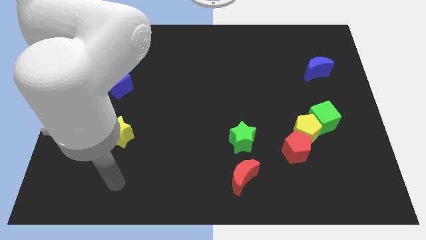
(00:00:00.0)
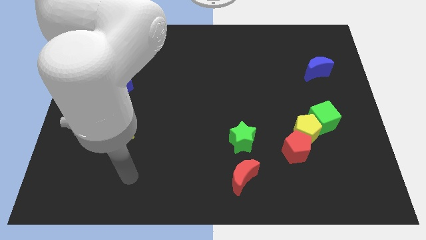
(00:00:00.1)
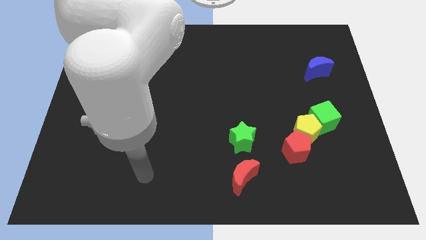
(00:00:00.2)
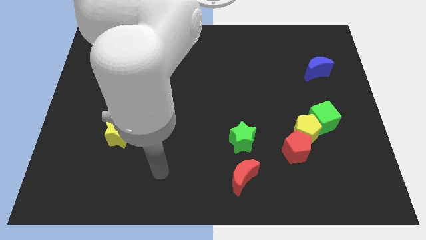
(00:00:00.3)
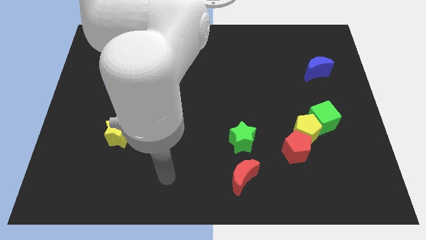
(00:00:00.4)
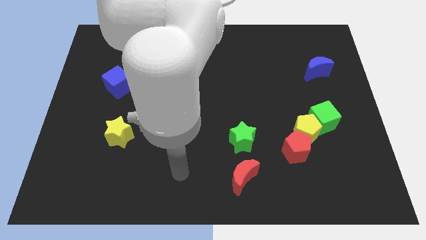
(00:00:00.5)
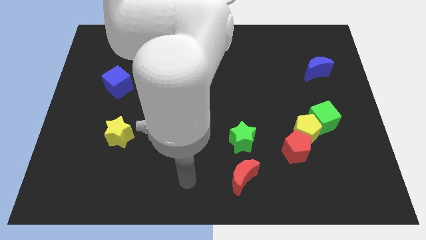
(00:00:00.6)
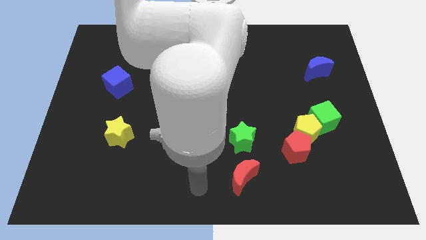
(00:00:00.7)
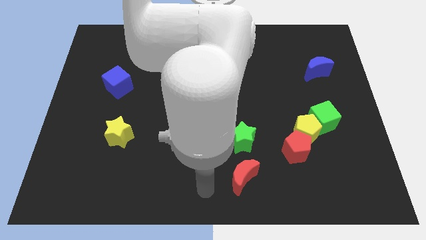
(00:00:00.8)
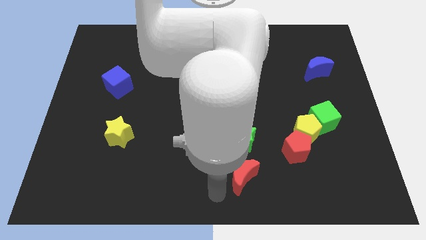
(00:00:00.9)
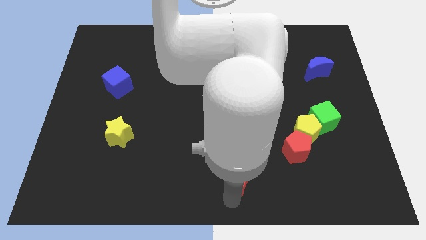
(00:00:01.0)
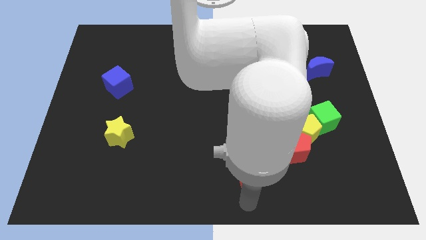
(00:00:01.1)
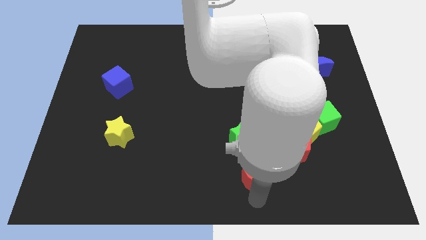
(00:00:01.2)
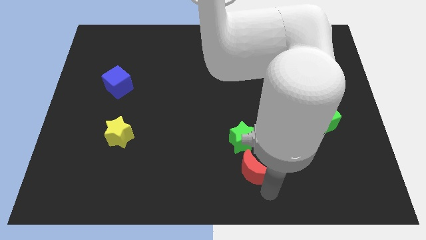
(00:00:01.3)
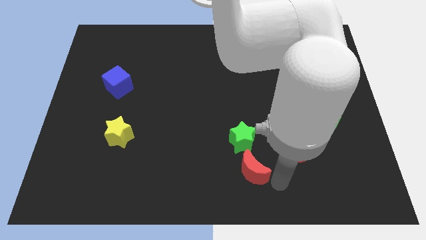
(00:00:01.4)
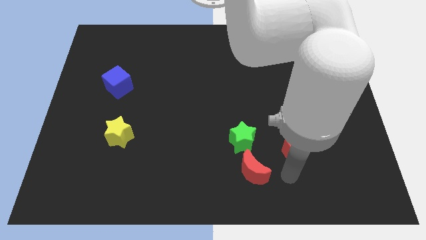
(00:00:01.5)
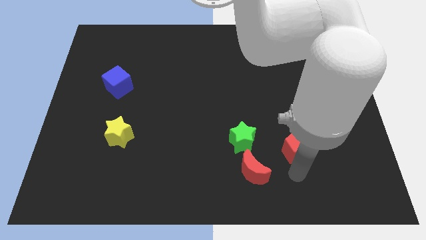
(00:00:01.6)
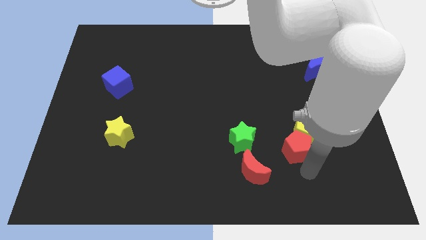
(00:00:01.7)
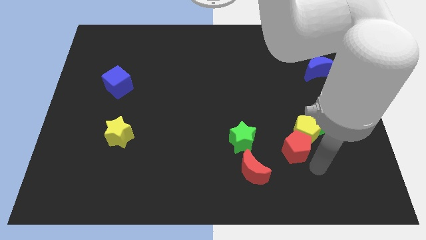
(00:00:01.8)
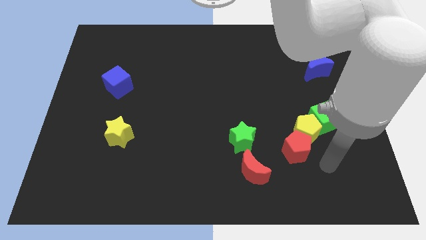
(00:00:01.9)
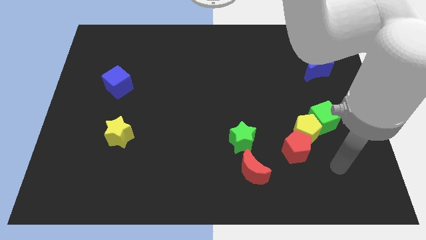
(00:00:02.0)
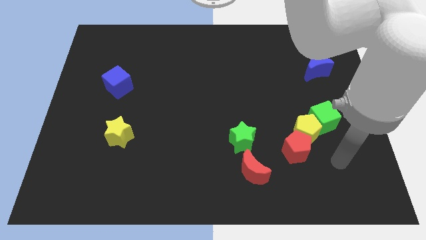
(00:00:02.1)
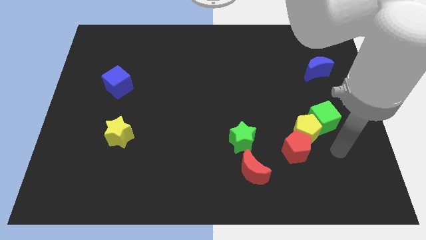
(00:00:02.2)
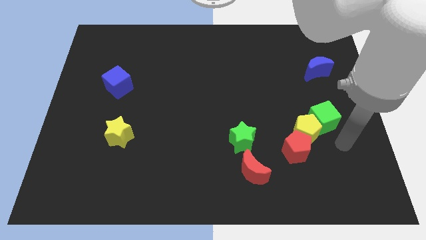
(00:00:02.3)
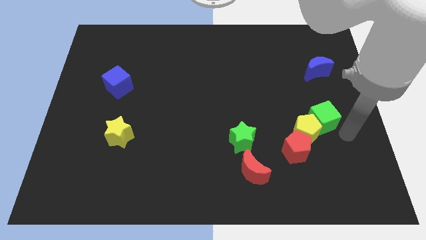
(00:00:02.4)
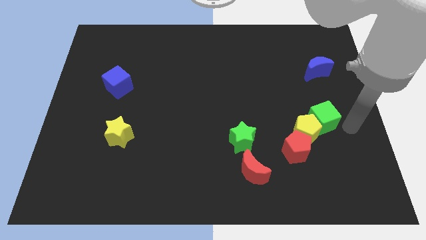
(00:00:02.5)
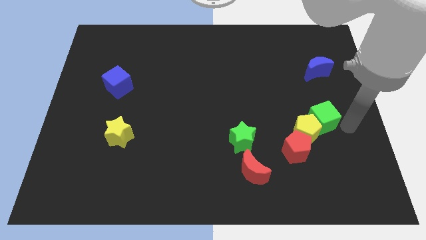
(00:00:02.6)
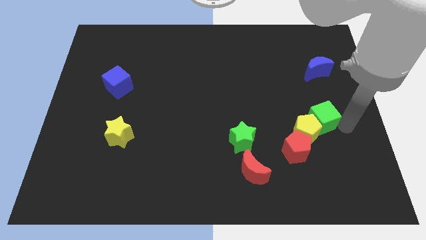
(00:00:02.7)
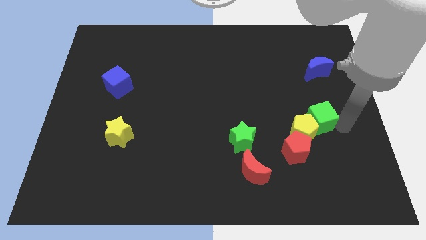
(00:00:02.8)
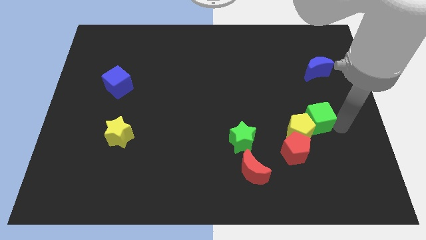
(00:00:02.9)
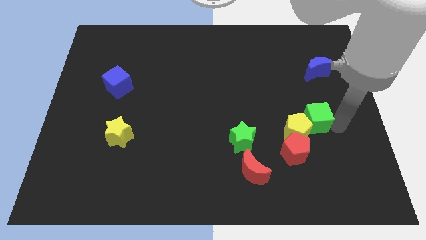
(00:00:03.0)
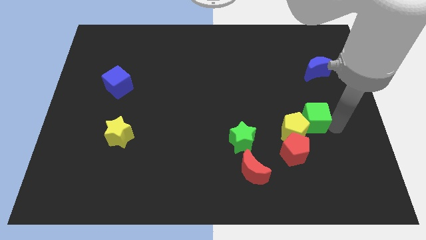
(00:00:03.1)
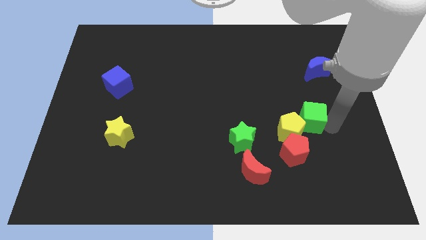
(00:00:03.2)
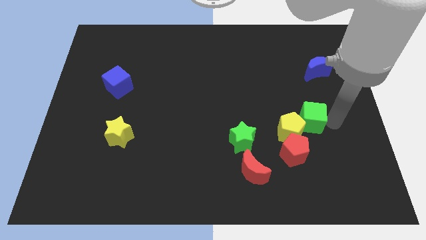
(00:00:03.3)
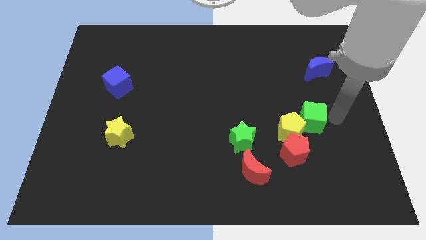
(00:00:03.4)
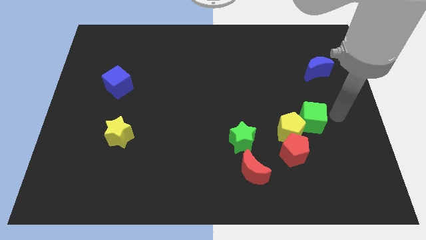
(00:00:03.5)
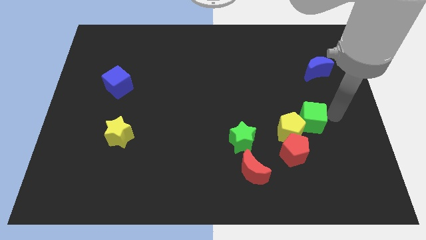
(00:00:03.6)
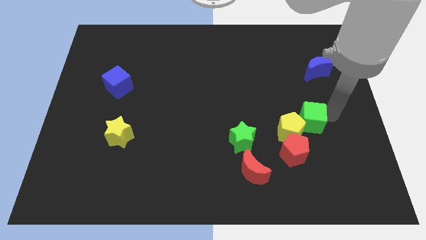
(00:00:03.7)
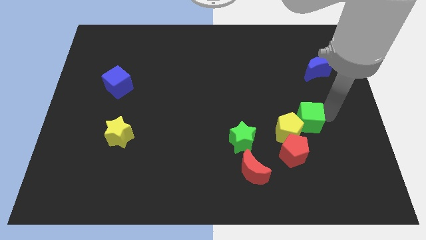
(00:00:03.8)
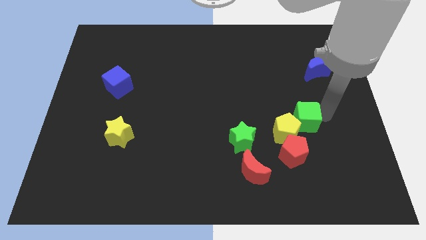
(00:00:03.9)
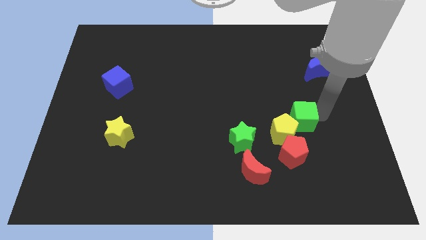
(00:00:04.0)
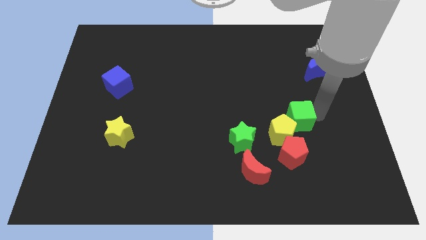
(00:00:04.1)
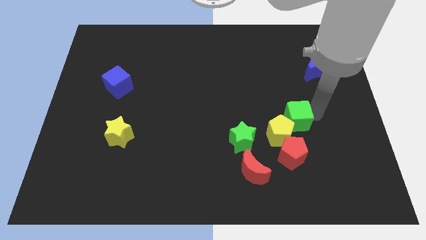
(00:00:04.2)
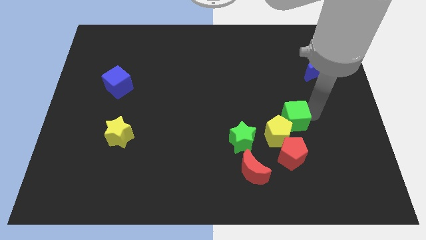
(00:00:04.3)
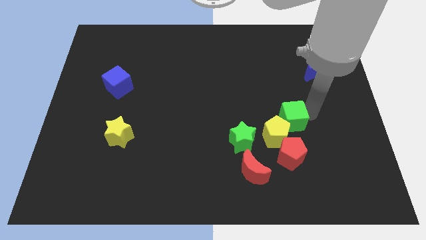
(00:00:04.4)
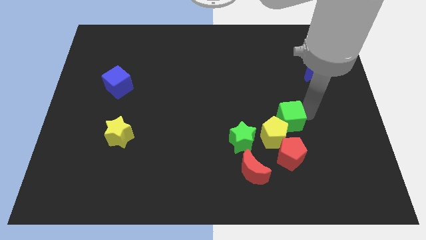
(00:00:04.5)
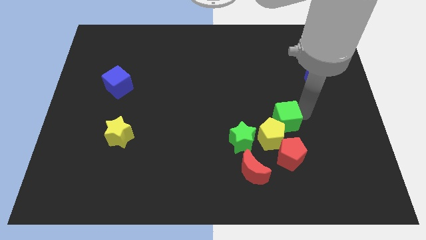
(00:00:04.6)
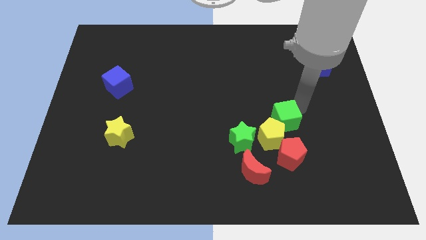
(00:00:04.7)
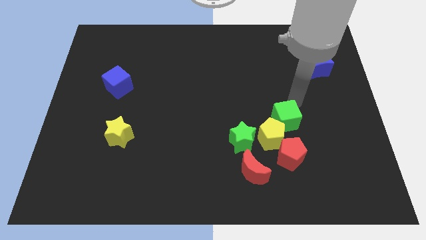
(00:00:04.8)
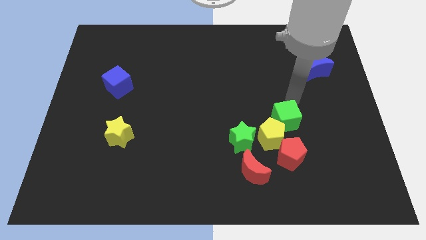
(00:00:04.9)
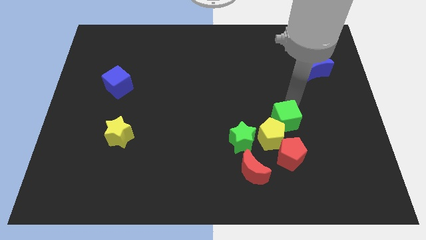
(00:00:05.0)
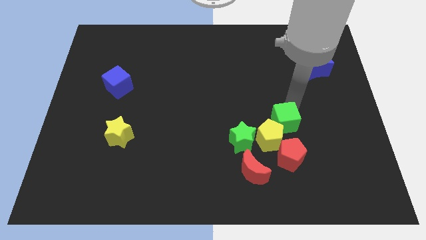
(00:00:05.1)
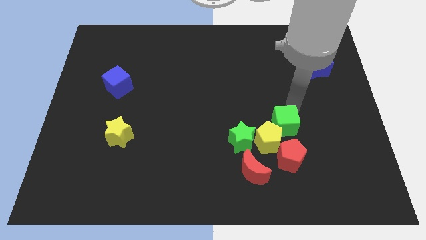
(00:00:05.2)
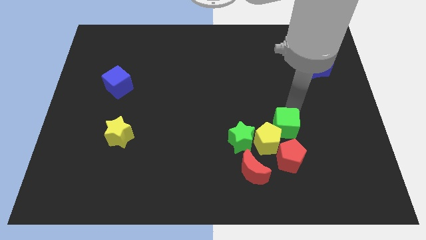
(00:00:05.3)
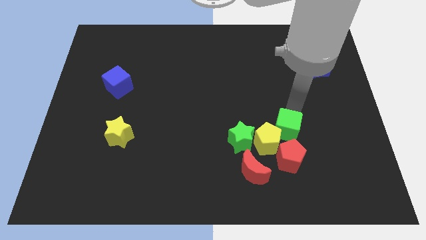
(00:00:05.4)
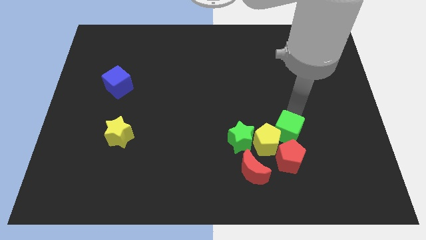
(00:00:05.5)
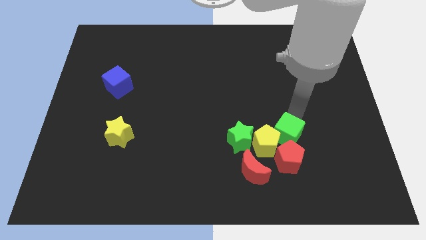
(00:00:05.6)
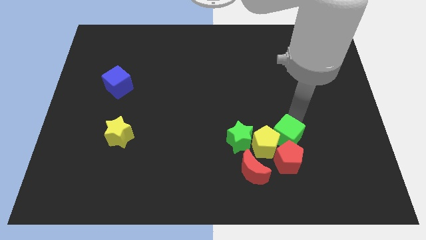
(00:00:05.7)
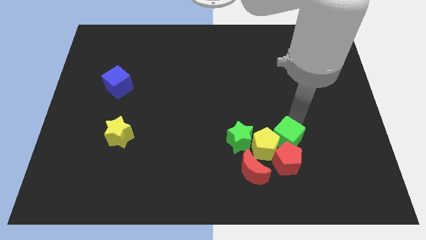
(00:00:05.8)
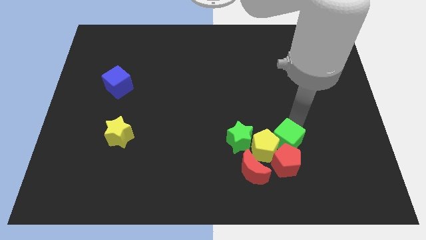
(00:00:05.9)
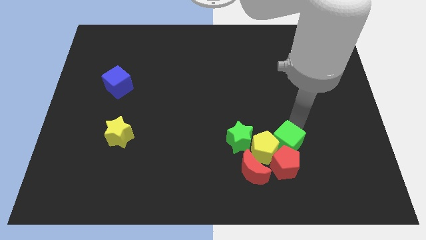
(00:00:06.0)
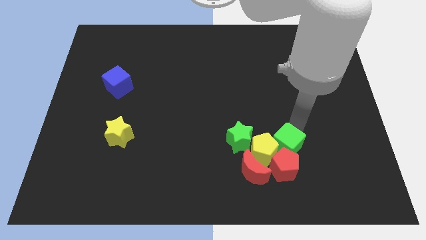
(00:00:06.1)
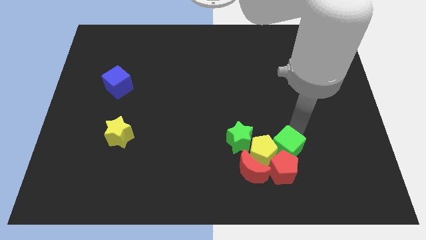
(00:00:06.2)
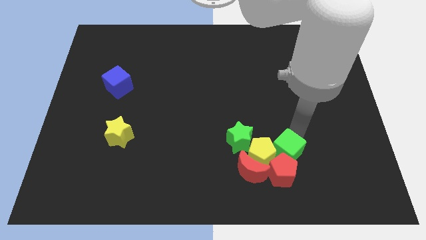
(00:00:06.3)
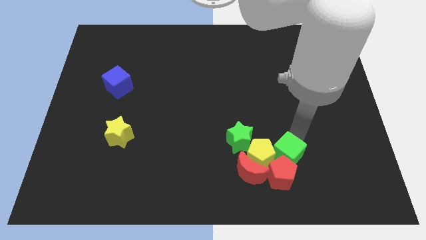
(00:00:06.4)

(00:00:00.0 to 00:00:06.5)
push the green cube diagonally down and to the right of the green star
